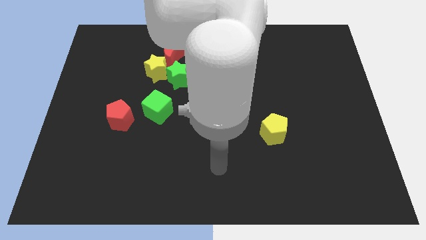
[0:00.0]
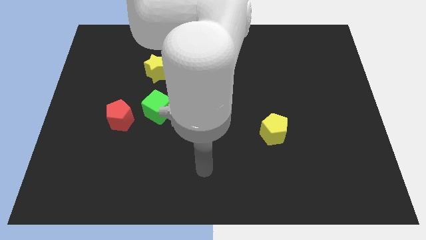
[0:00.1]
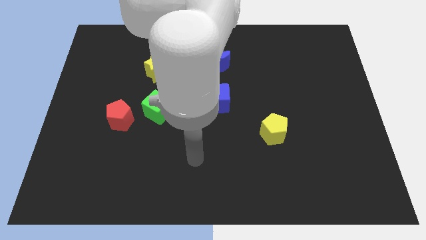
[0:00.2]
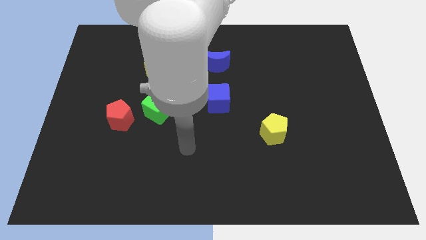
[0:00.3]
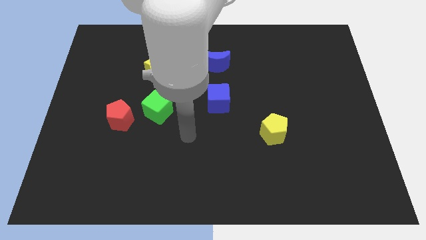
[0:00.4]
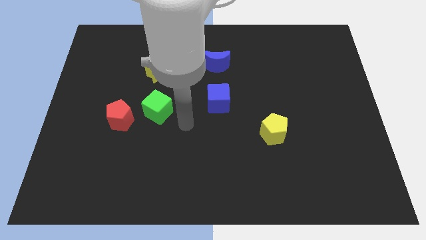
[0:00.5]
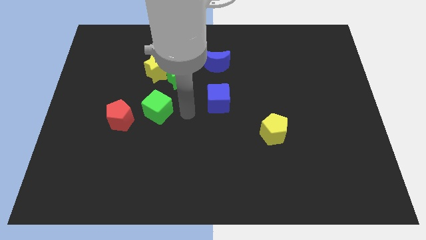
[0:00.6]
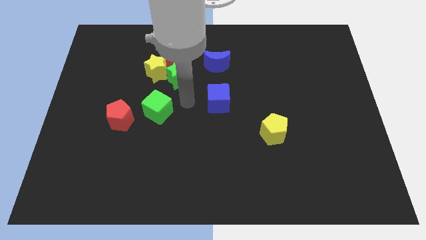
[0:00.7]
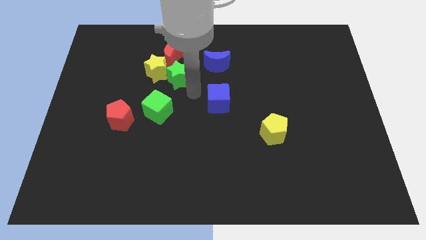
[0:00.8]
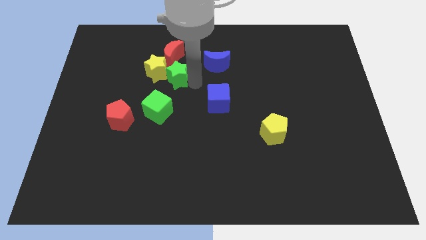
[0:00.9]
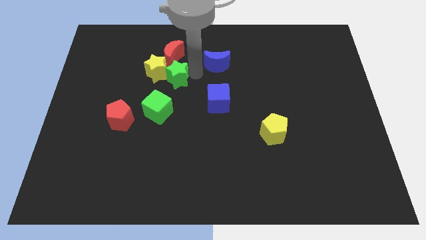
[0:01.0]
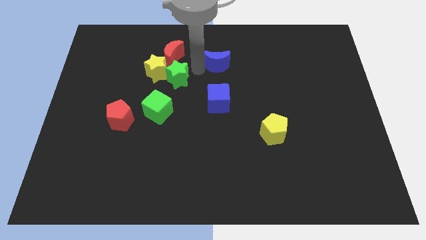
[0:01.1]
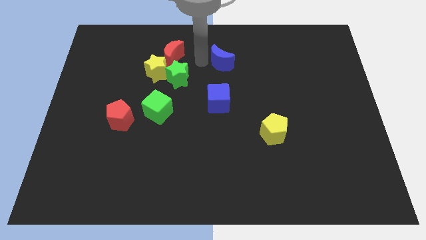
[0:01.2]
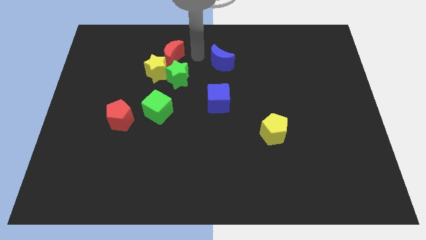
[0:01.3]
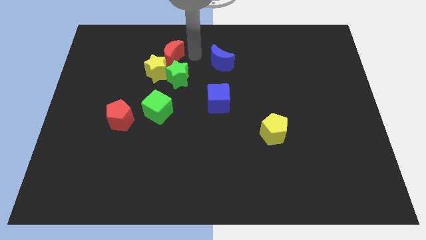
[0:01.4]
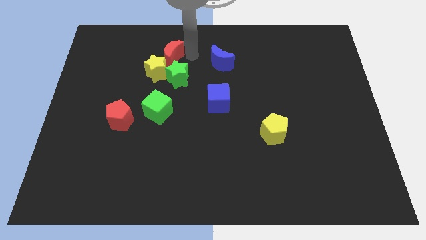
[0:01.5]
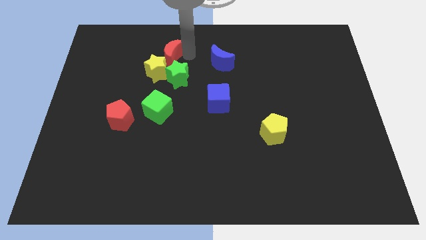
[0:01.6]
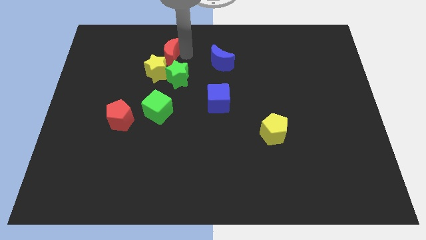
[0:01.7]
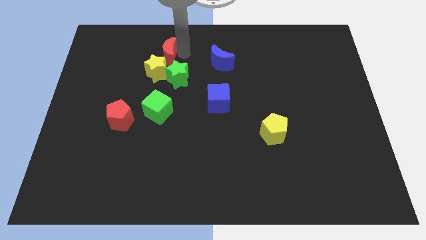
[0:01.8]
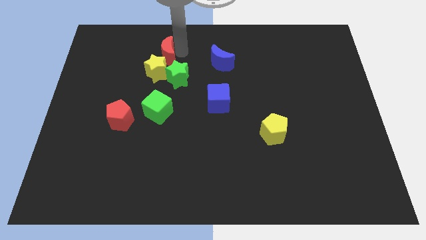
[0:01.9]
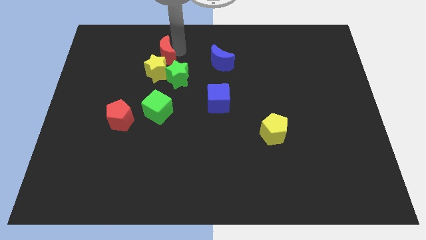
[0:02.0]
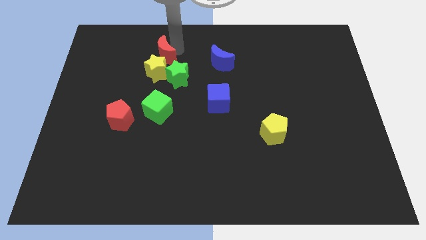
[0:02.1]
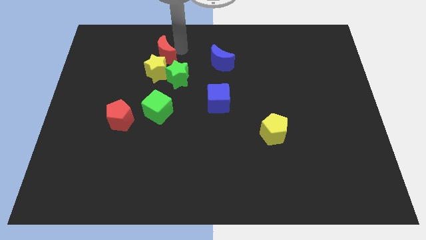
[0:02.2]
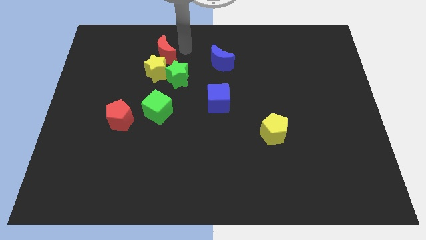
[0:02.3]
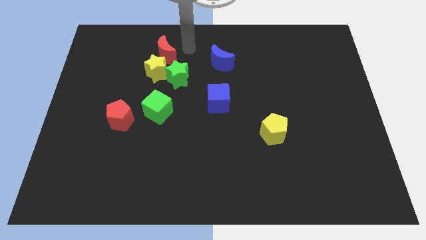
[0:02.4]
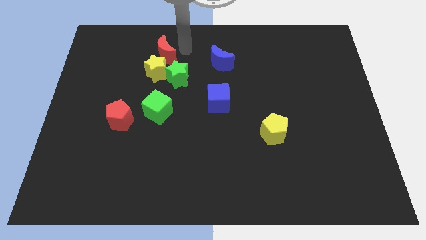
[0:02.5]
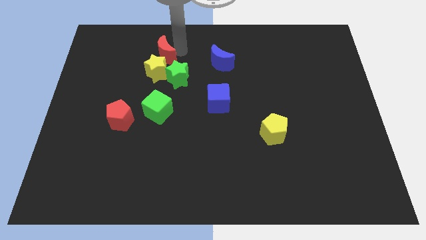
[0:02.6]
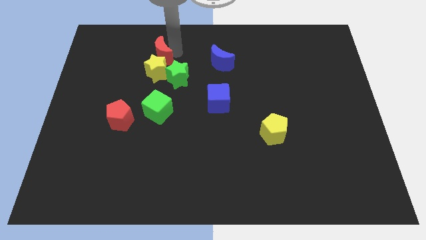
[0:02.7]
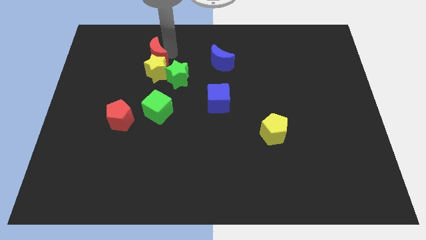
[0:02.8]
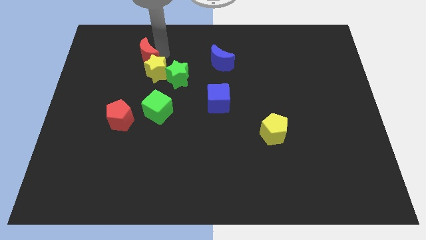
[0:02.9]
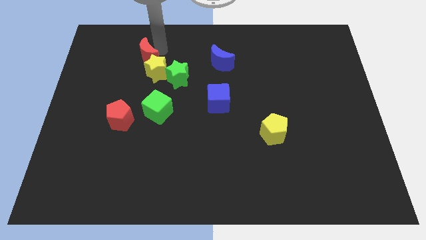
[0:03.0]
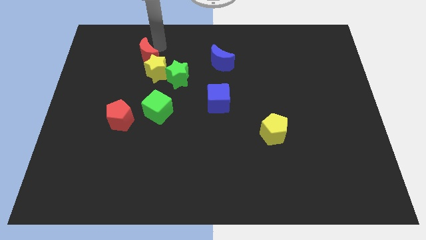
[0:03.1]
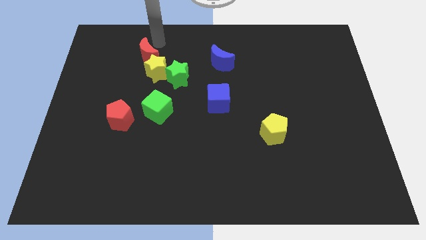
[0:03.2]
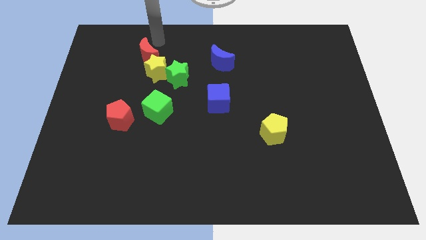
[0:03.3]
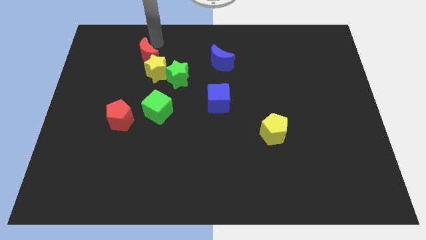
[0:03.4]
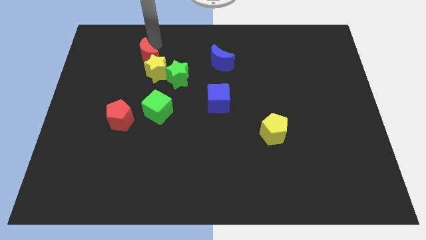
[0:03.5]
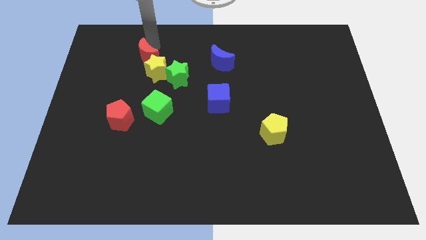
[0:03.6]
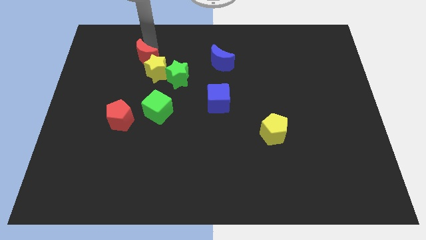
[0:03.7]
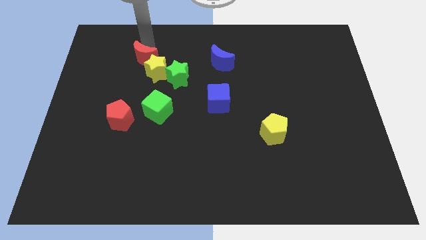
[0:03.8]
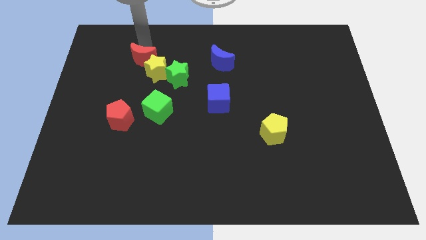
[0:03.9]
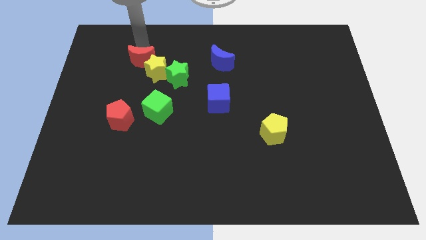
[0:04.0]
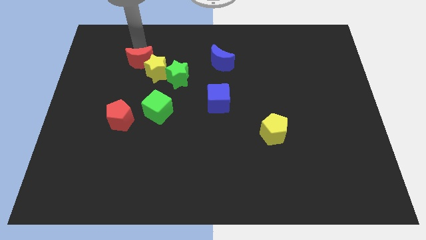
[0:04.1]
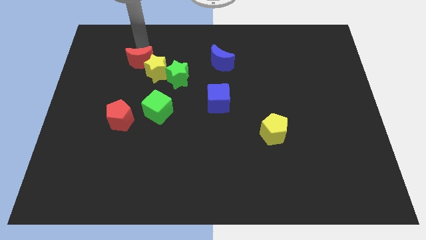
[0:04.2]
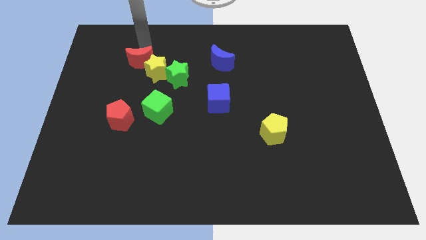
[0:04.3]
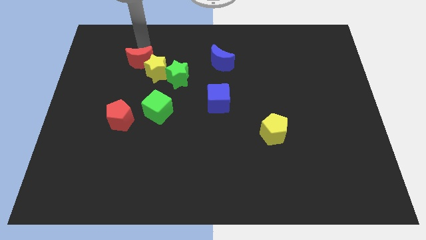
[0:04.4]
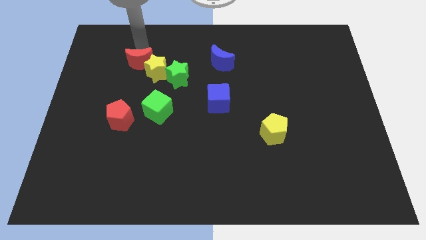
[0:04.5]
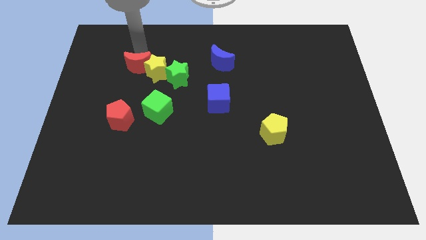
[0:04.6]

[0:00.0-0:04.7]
slightly push the red moon downwards and left diagonally

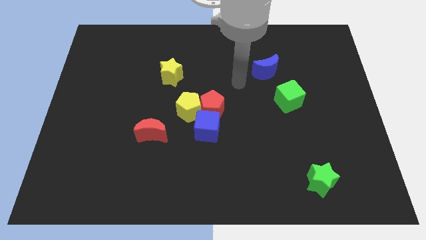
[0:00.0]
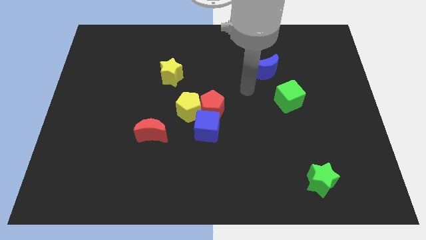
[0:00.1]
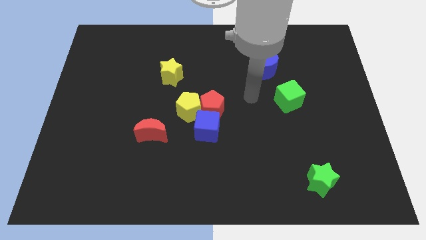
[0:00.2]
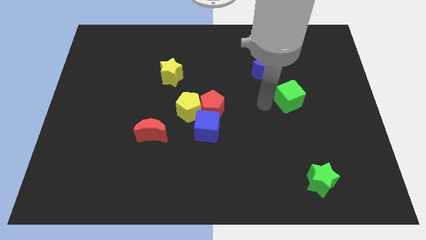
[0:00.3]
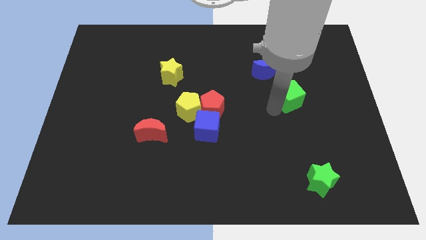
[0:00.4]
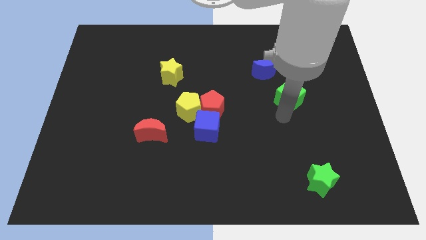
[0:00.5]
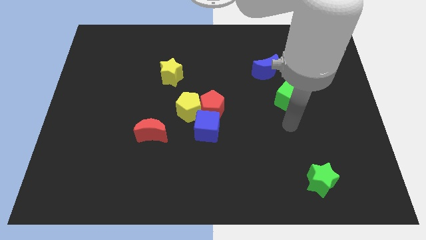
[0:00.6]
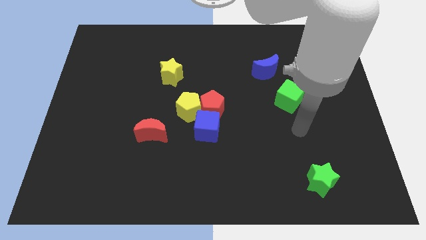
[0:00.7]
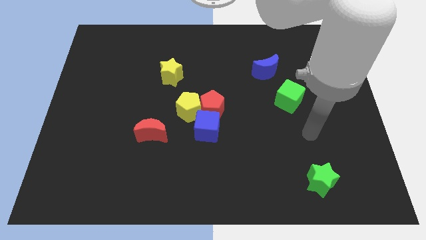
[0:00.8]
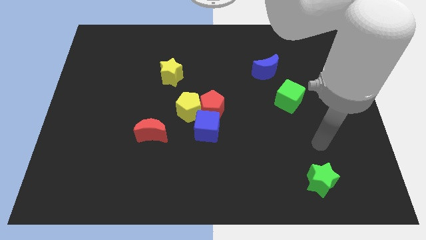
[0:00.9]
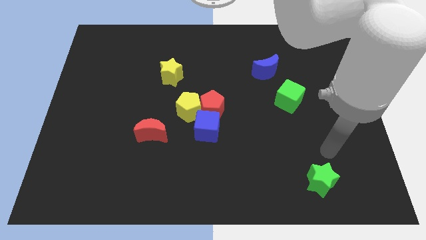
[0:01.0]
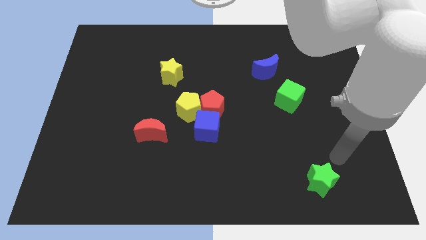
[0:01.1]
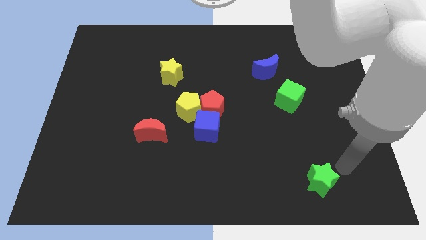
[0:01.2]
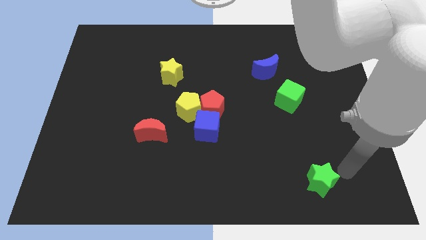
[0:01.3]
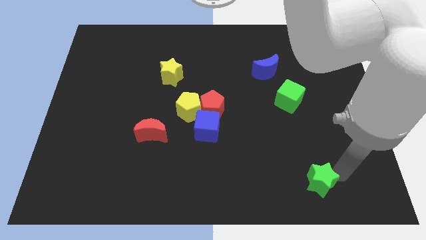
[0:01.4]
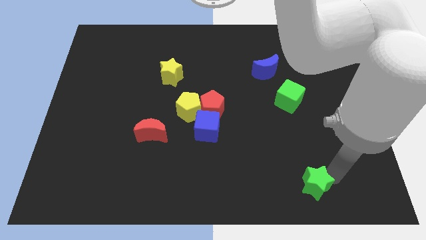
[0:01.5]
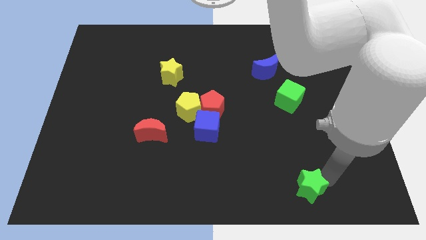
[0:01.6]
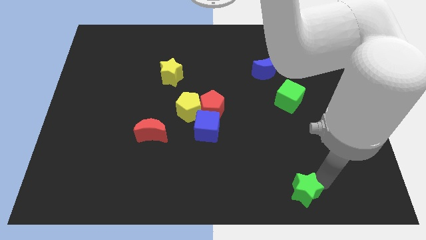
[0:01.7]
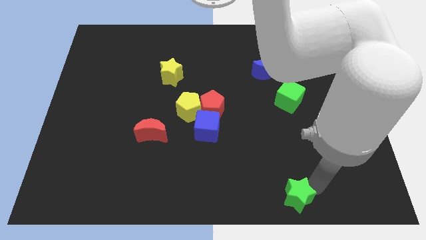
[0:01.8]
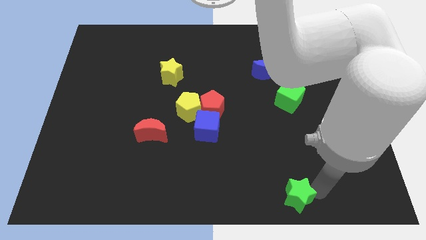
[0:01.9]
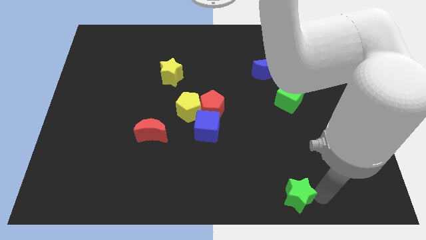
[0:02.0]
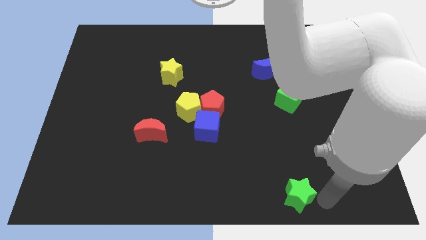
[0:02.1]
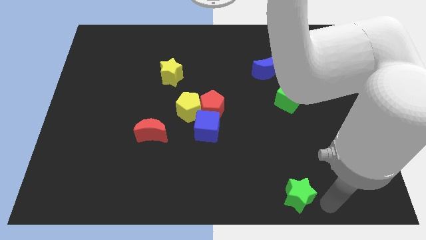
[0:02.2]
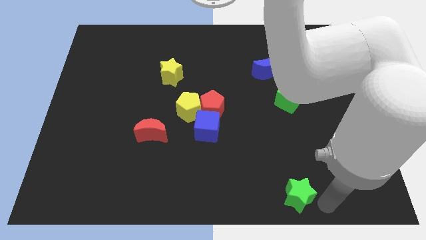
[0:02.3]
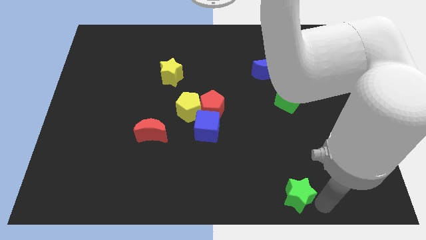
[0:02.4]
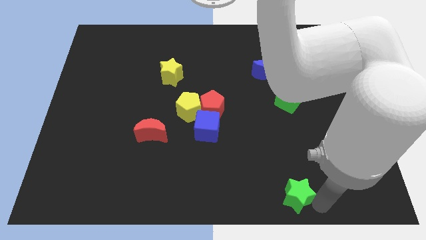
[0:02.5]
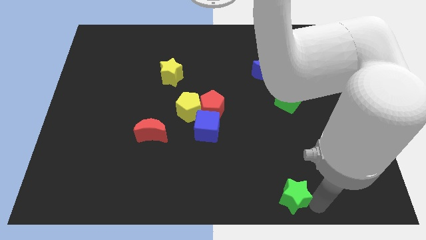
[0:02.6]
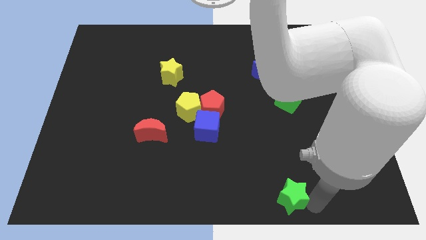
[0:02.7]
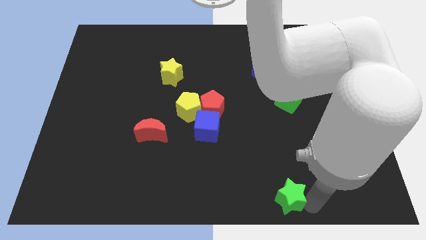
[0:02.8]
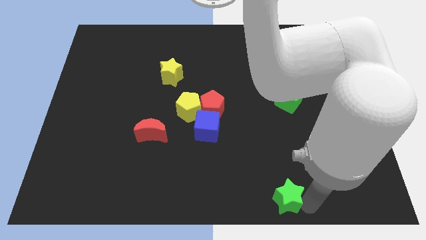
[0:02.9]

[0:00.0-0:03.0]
slightly push the green star to the left
